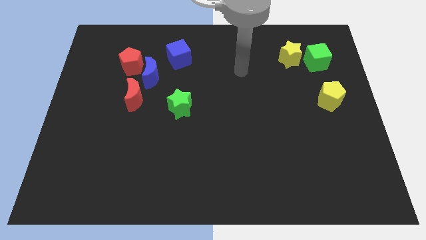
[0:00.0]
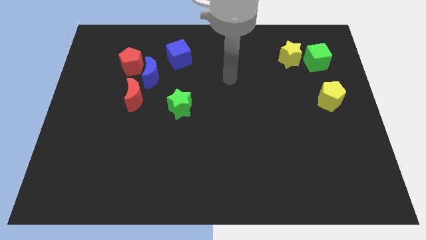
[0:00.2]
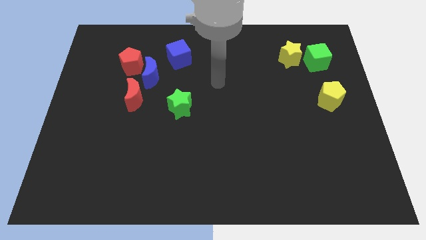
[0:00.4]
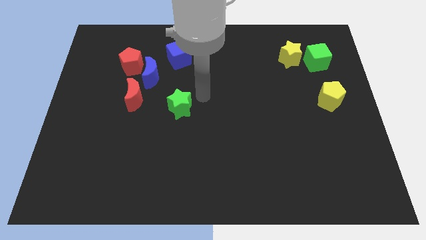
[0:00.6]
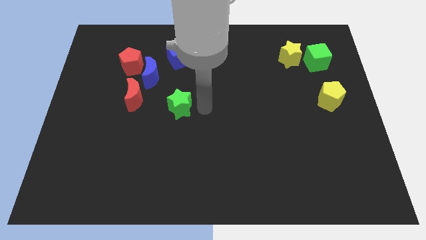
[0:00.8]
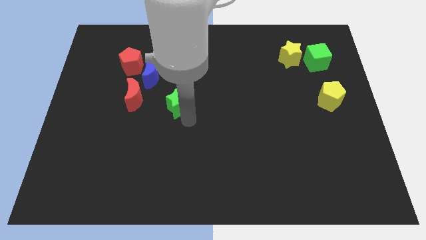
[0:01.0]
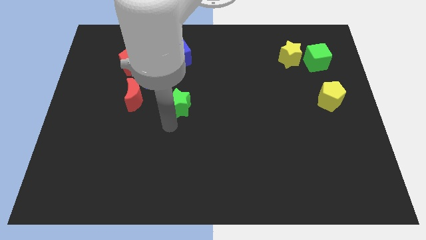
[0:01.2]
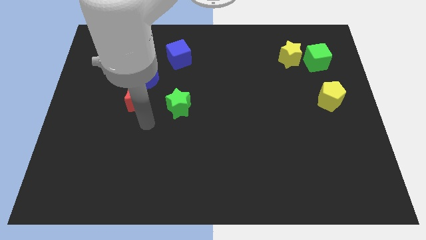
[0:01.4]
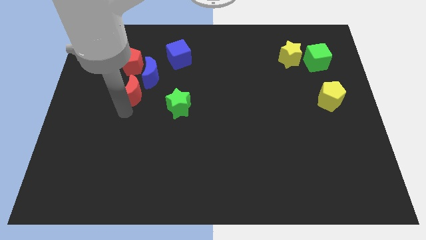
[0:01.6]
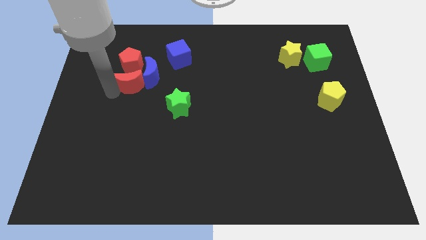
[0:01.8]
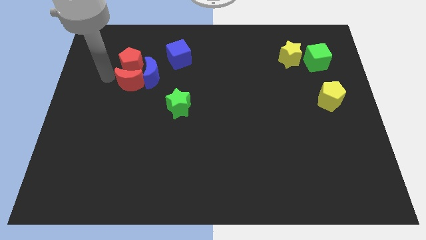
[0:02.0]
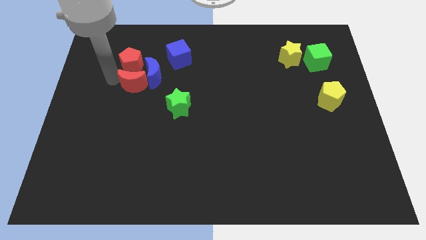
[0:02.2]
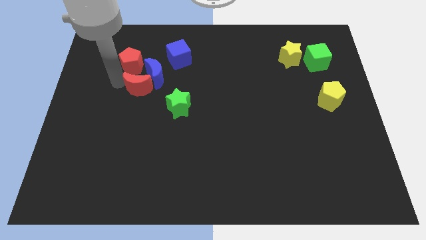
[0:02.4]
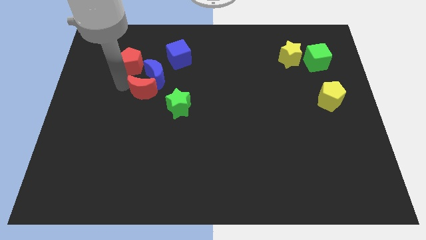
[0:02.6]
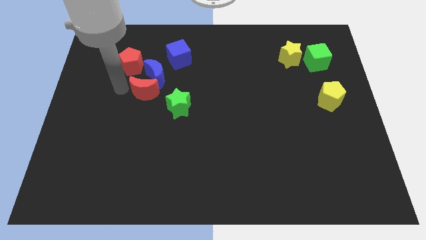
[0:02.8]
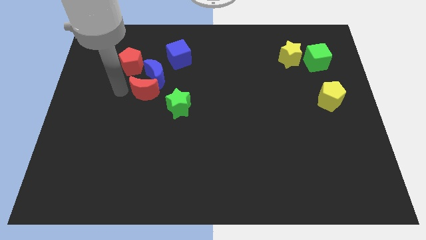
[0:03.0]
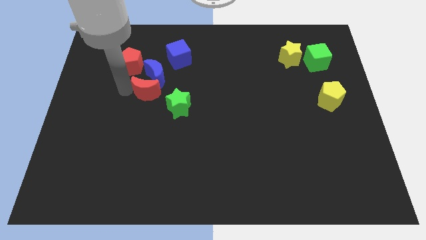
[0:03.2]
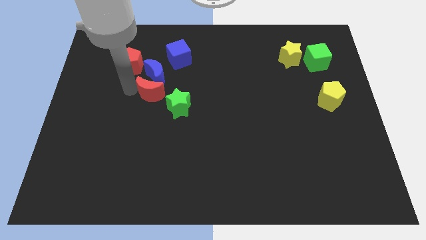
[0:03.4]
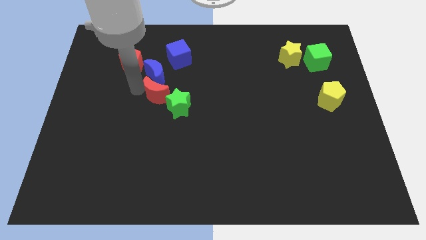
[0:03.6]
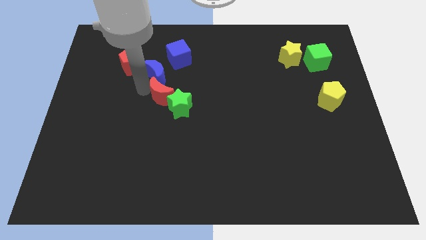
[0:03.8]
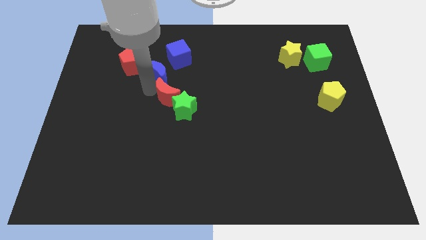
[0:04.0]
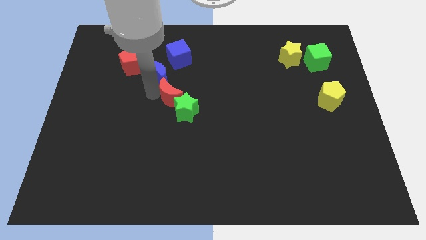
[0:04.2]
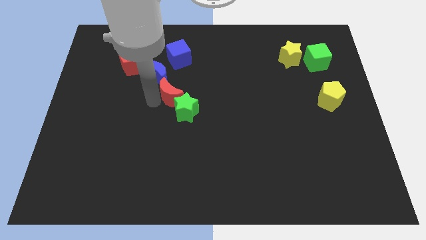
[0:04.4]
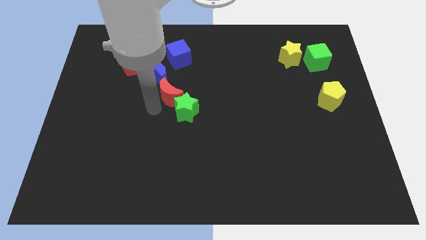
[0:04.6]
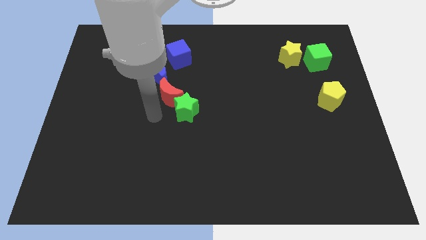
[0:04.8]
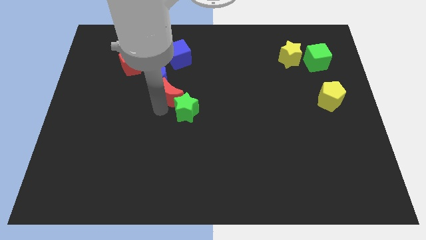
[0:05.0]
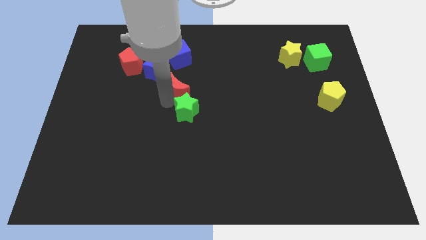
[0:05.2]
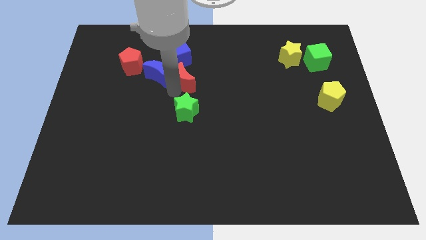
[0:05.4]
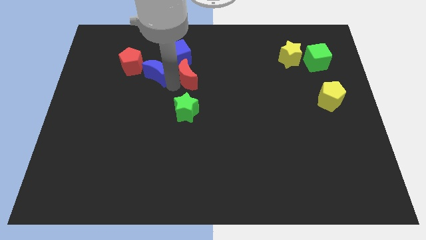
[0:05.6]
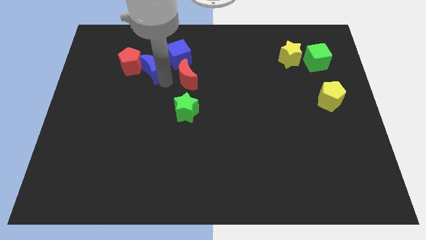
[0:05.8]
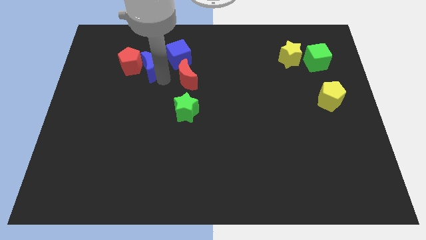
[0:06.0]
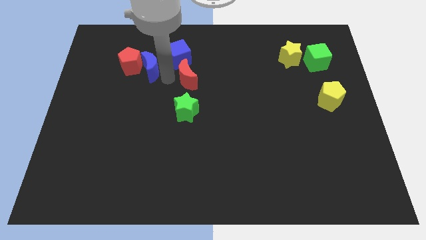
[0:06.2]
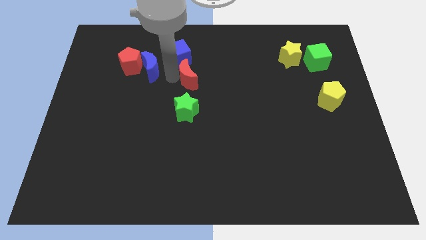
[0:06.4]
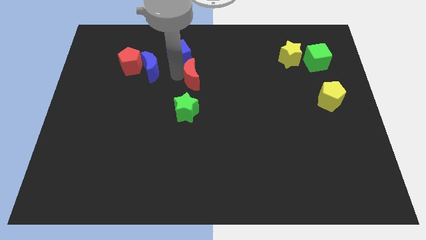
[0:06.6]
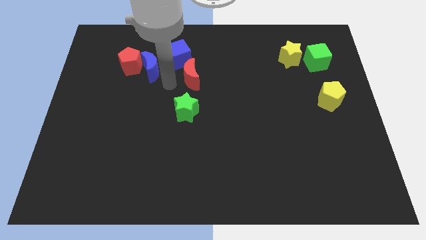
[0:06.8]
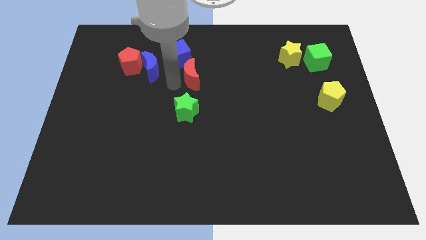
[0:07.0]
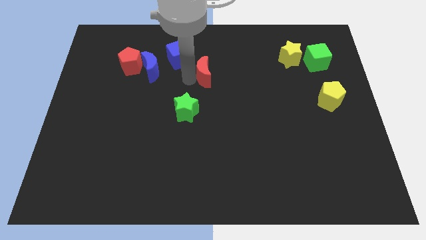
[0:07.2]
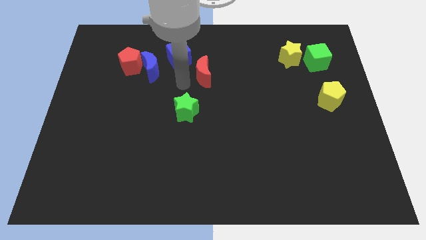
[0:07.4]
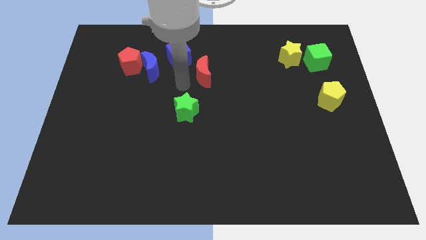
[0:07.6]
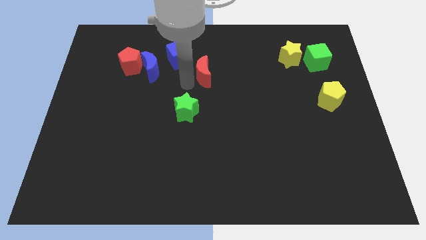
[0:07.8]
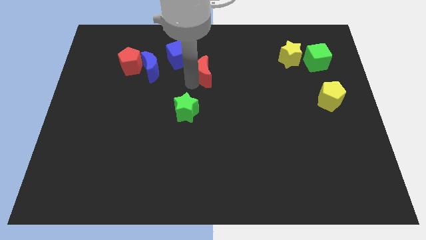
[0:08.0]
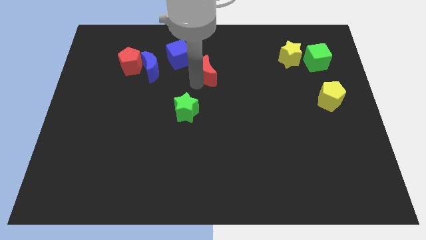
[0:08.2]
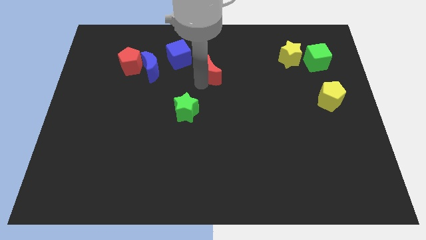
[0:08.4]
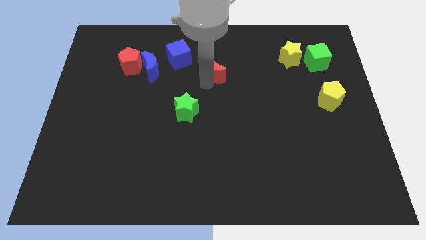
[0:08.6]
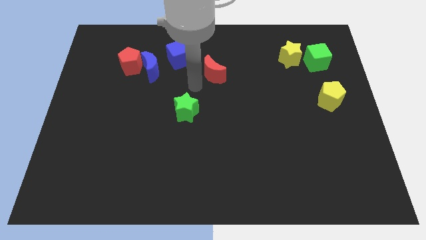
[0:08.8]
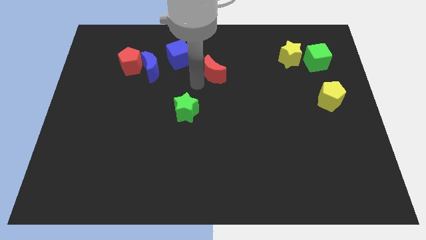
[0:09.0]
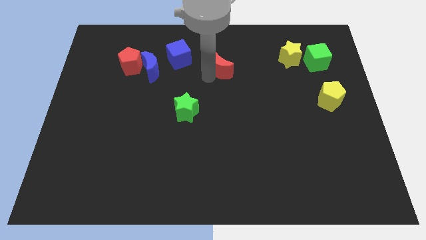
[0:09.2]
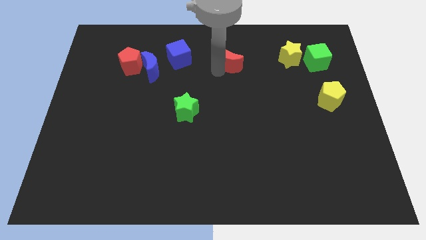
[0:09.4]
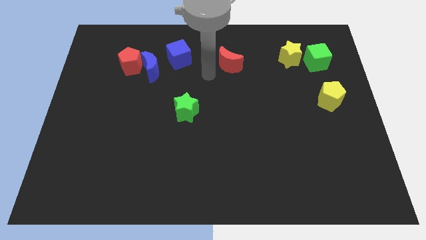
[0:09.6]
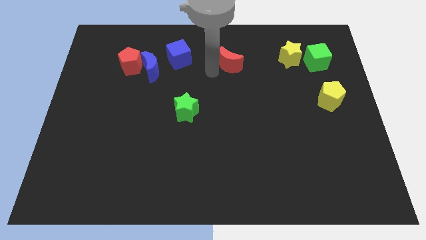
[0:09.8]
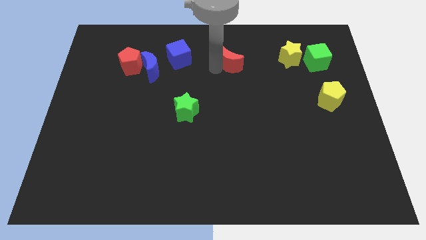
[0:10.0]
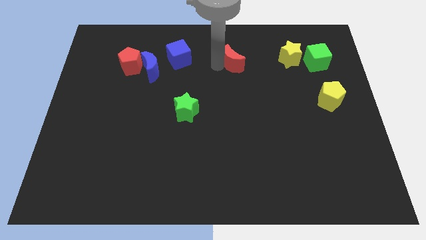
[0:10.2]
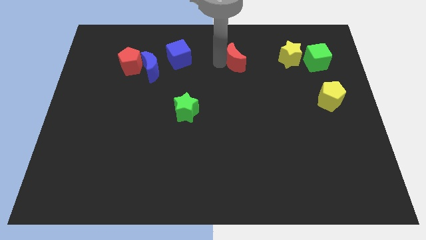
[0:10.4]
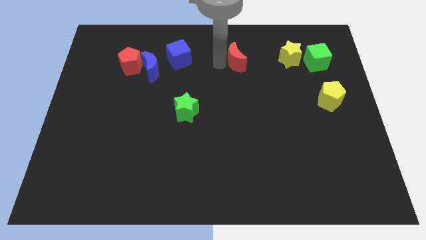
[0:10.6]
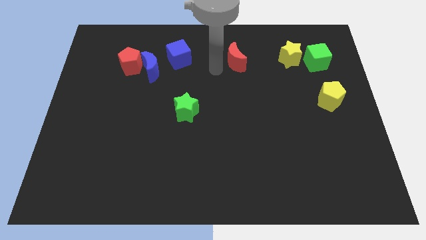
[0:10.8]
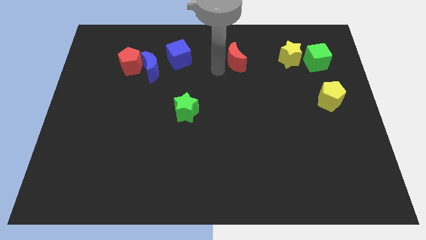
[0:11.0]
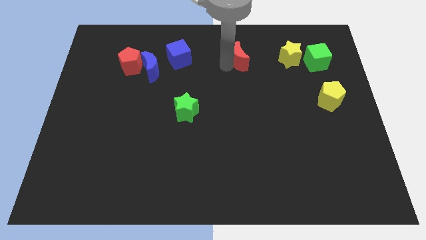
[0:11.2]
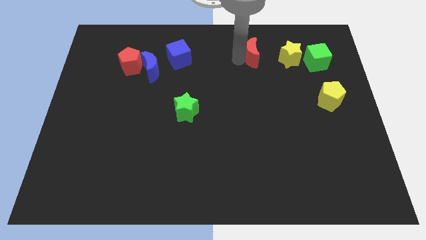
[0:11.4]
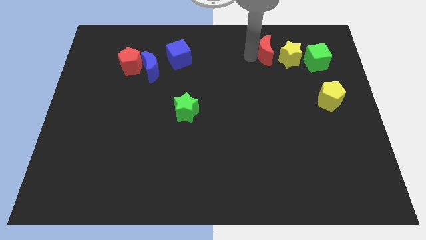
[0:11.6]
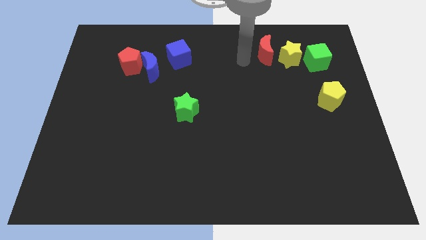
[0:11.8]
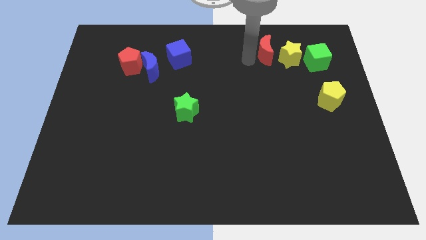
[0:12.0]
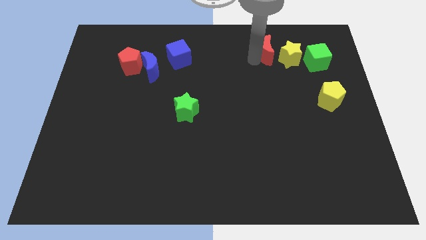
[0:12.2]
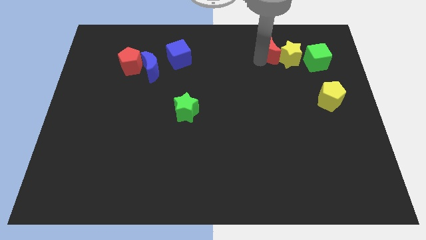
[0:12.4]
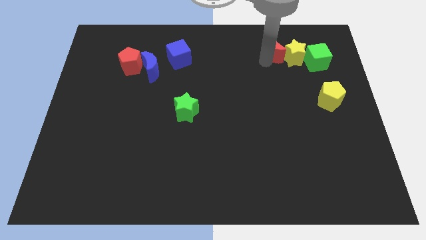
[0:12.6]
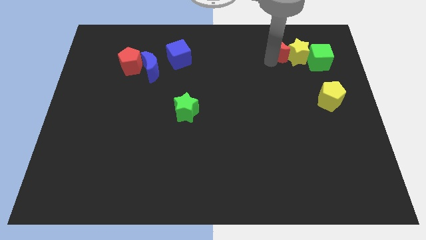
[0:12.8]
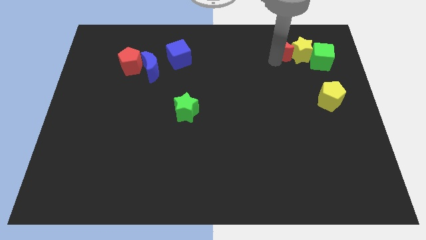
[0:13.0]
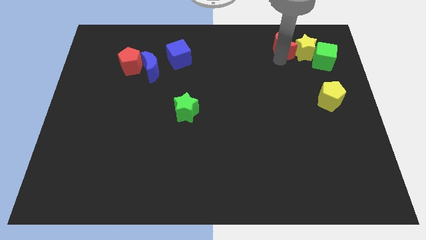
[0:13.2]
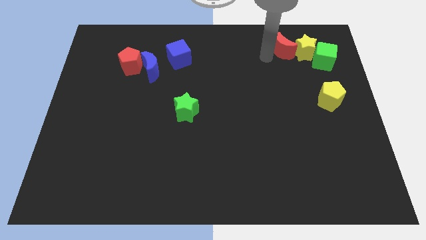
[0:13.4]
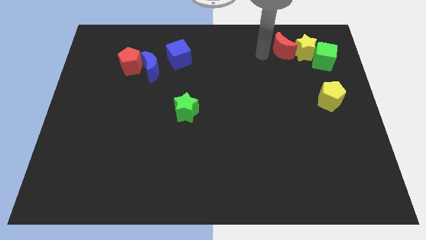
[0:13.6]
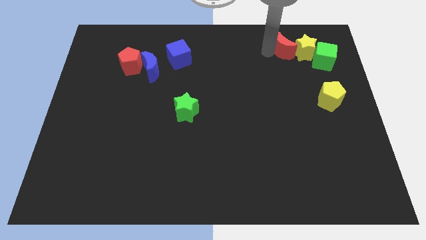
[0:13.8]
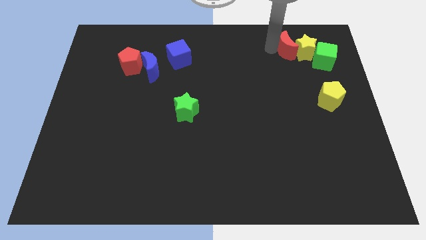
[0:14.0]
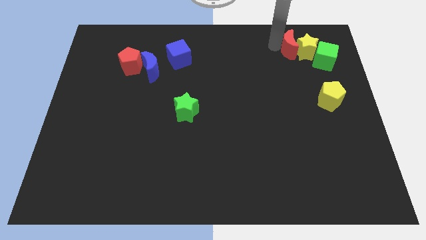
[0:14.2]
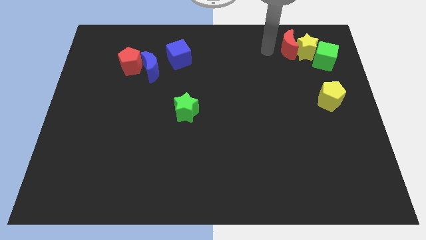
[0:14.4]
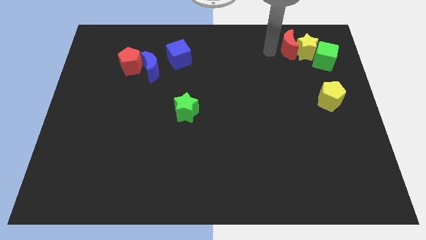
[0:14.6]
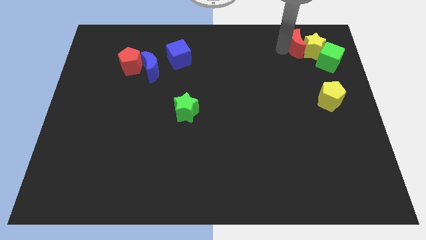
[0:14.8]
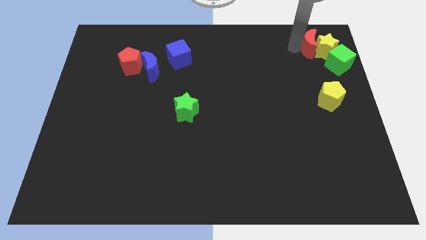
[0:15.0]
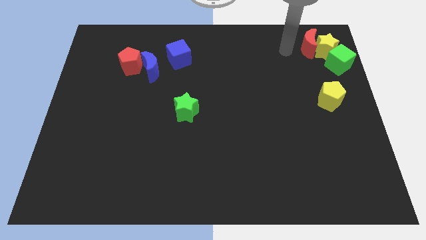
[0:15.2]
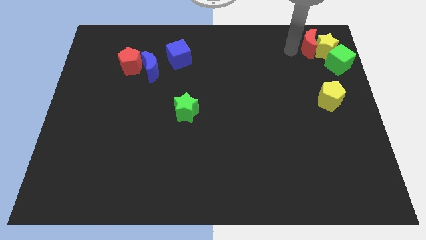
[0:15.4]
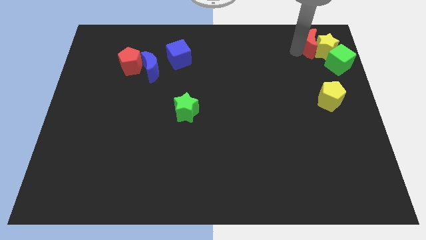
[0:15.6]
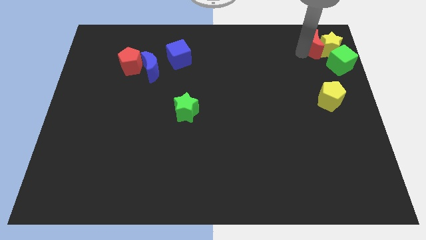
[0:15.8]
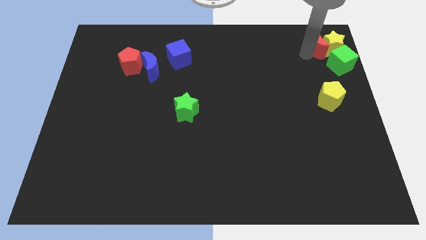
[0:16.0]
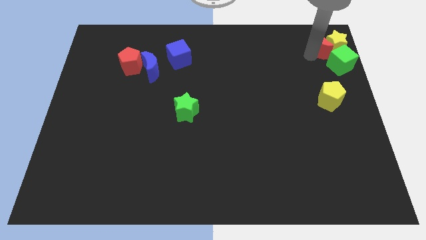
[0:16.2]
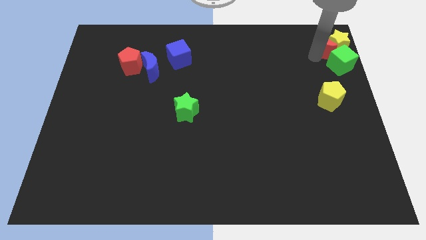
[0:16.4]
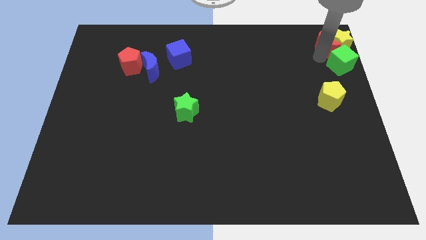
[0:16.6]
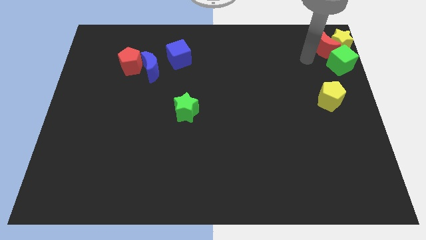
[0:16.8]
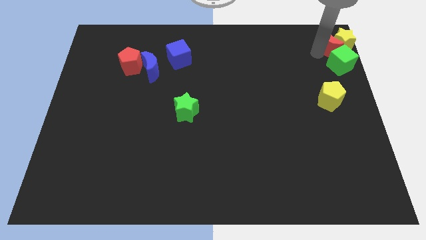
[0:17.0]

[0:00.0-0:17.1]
move the red moon to the top right
